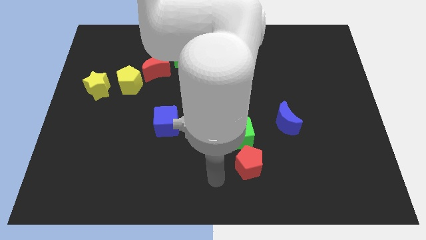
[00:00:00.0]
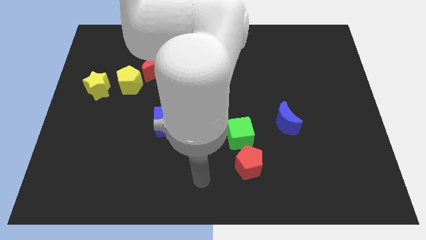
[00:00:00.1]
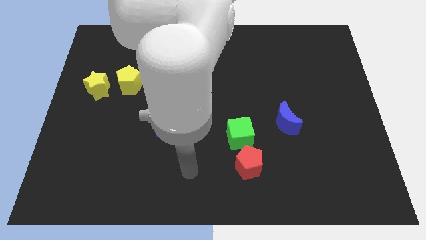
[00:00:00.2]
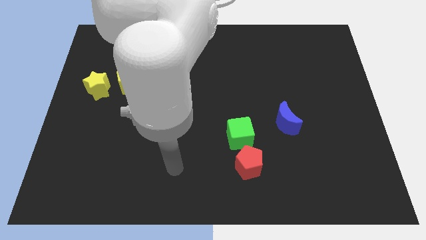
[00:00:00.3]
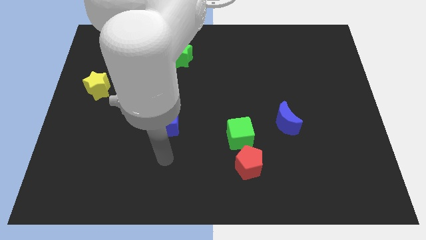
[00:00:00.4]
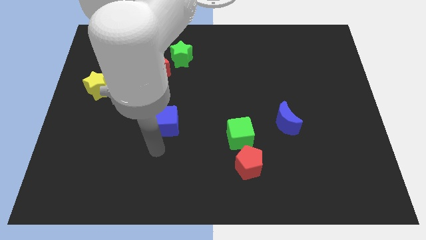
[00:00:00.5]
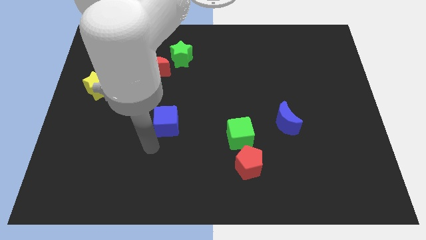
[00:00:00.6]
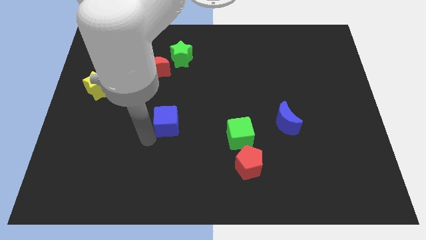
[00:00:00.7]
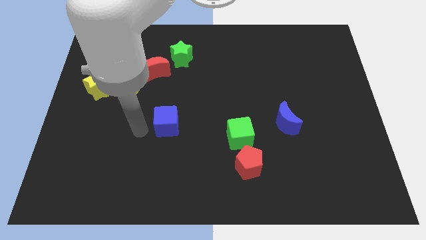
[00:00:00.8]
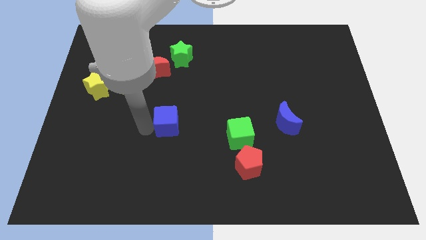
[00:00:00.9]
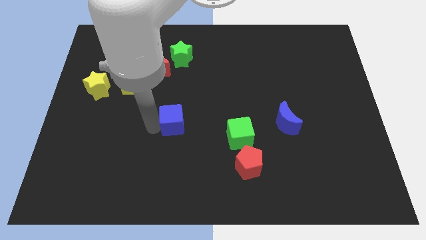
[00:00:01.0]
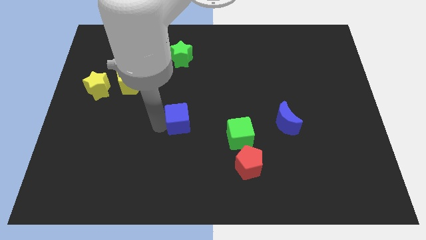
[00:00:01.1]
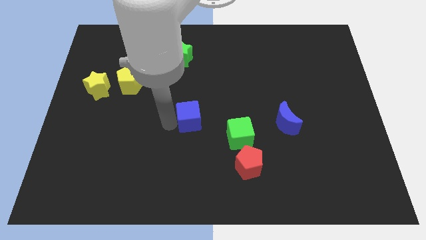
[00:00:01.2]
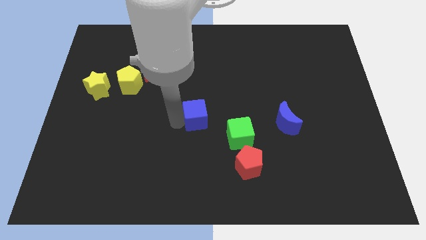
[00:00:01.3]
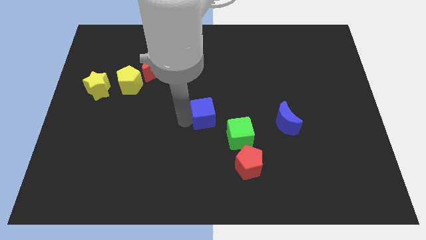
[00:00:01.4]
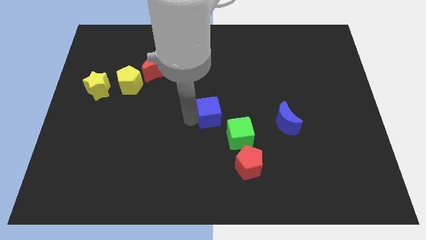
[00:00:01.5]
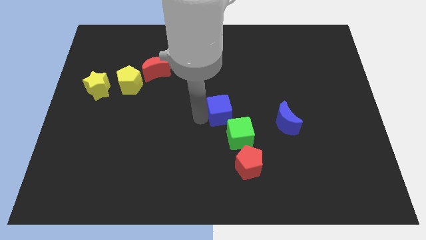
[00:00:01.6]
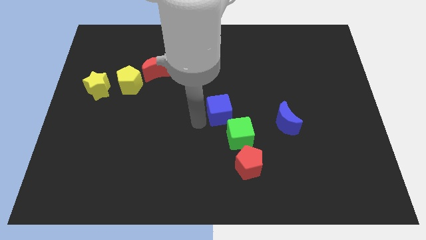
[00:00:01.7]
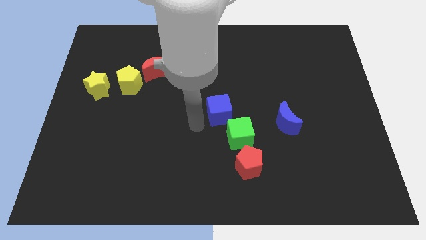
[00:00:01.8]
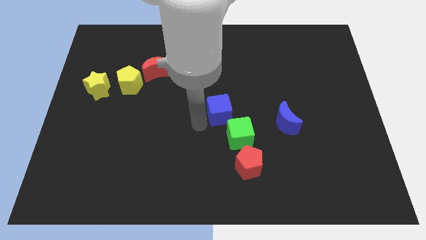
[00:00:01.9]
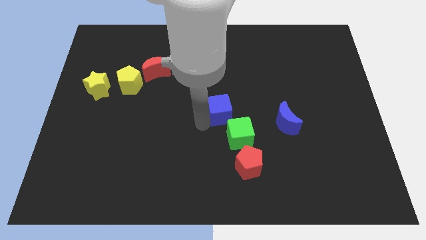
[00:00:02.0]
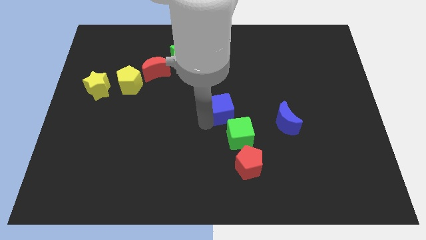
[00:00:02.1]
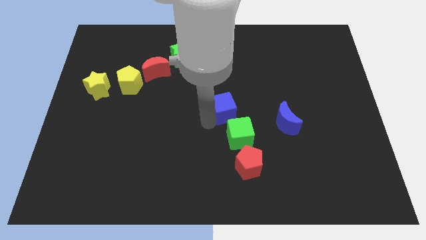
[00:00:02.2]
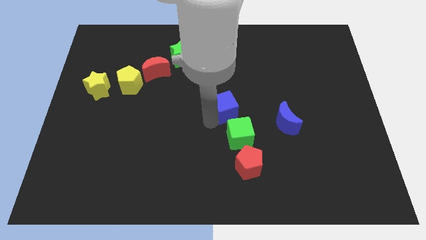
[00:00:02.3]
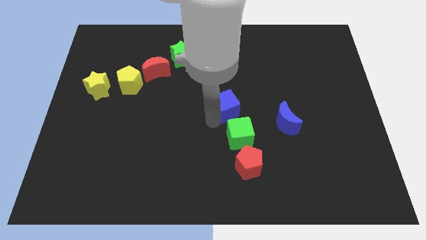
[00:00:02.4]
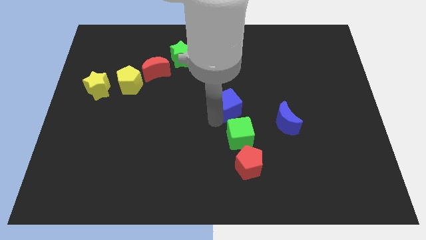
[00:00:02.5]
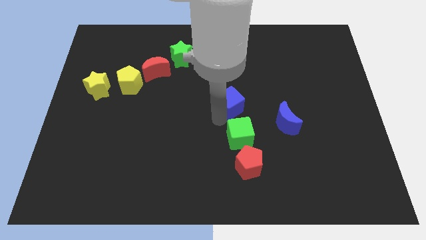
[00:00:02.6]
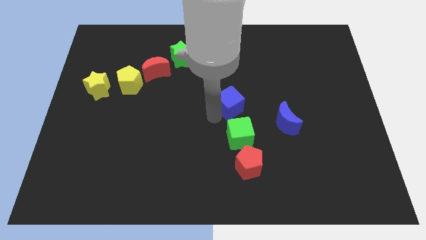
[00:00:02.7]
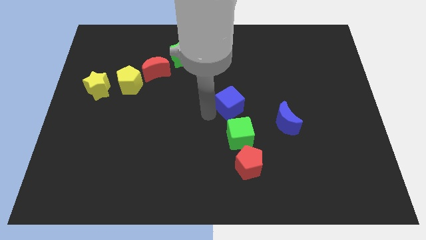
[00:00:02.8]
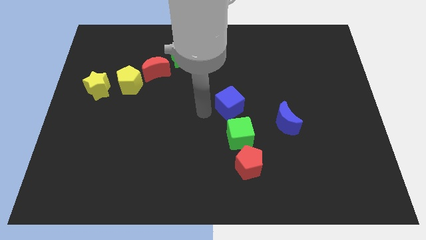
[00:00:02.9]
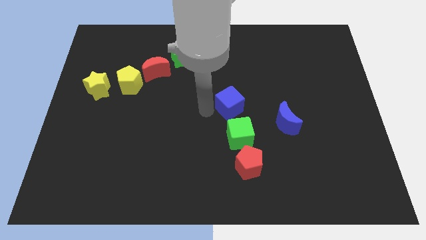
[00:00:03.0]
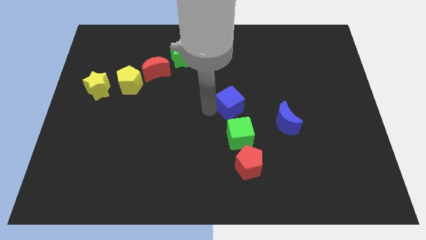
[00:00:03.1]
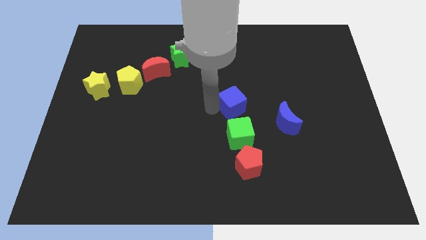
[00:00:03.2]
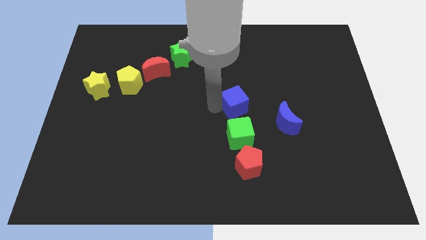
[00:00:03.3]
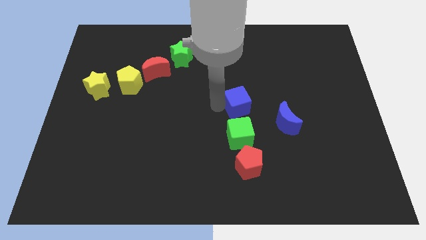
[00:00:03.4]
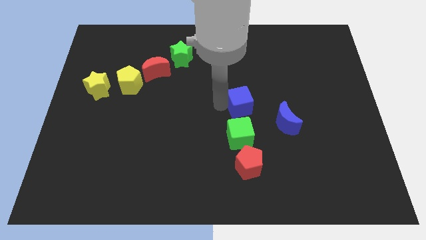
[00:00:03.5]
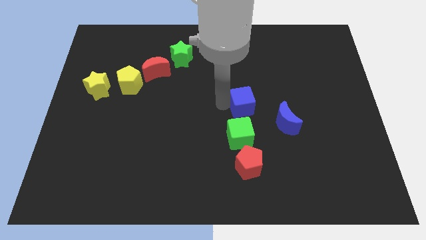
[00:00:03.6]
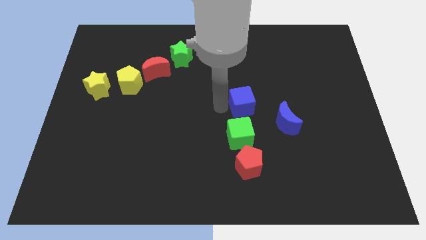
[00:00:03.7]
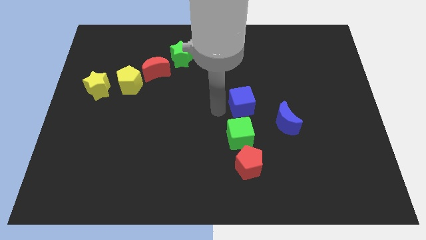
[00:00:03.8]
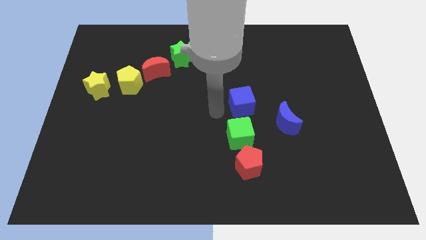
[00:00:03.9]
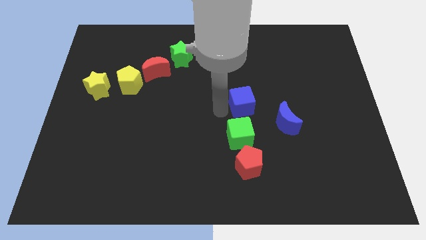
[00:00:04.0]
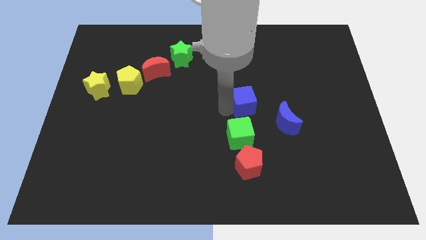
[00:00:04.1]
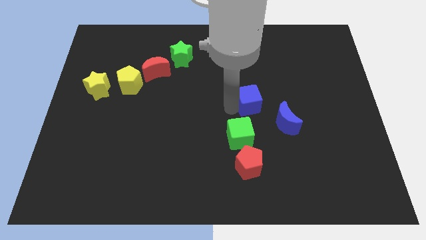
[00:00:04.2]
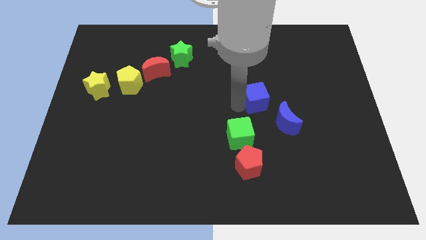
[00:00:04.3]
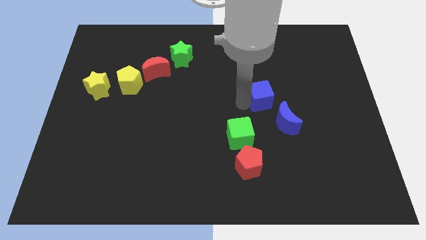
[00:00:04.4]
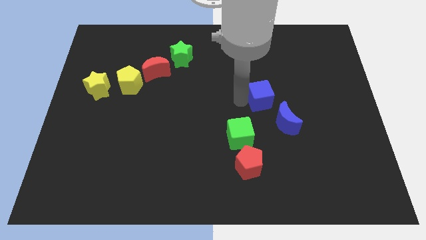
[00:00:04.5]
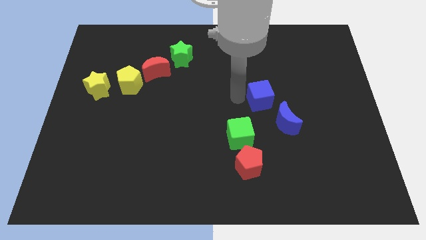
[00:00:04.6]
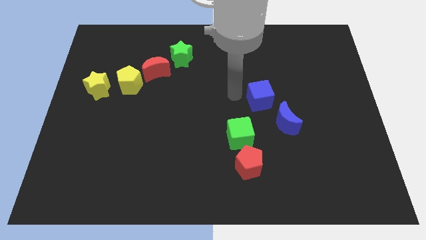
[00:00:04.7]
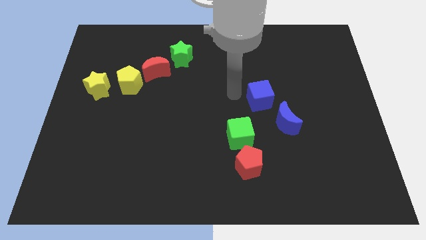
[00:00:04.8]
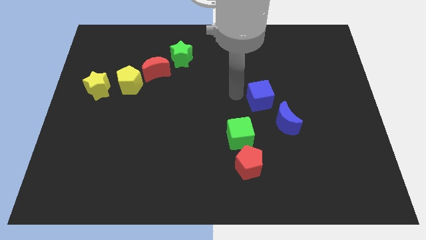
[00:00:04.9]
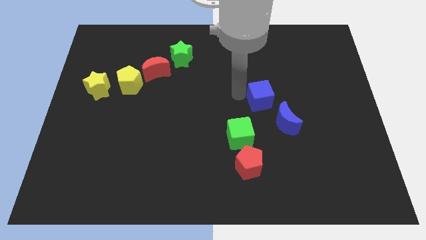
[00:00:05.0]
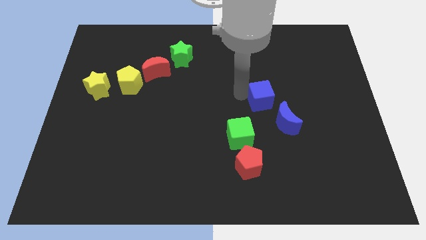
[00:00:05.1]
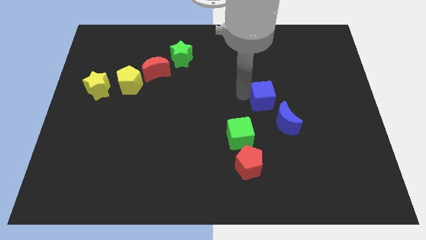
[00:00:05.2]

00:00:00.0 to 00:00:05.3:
slide the blue cube to the right

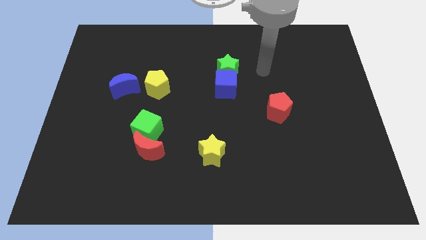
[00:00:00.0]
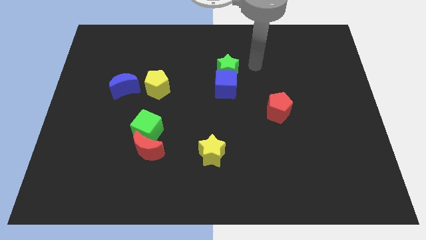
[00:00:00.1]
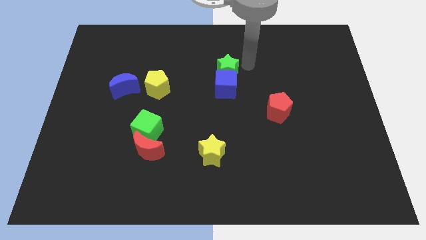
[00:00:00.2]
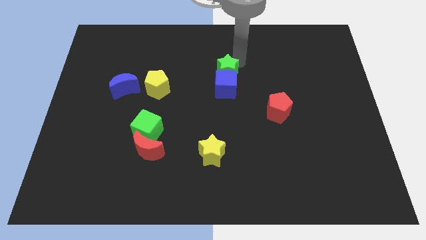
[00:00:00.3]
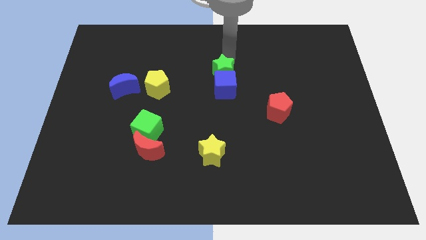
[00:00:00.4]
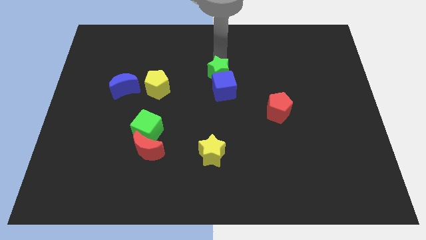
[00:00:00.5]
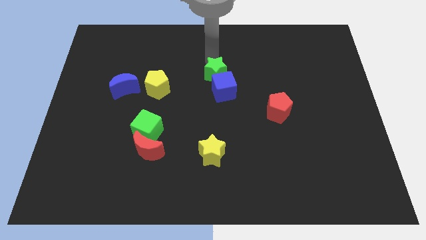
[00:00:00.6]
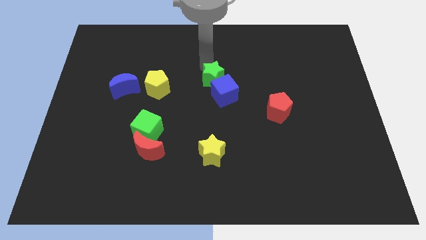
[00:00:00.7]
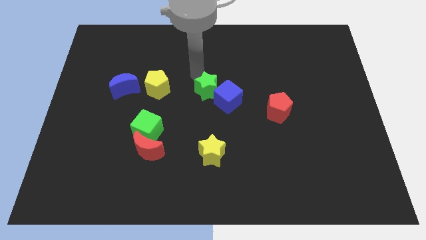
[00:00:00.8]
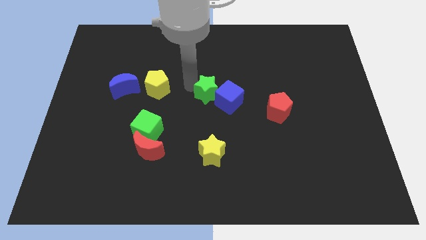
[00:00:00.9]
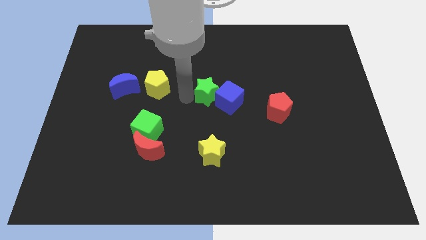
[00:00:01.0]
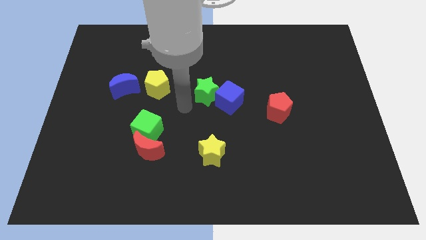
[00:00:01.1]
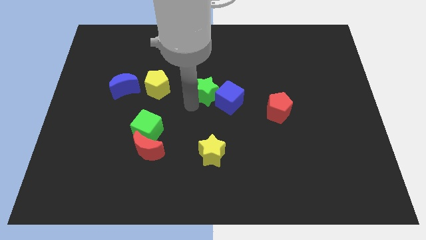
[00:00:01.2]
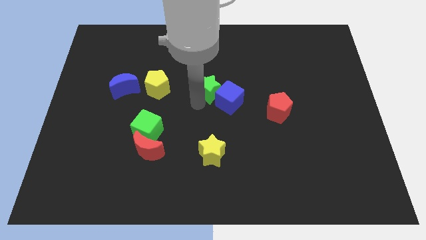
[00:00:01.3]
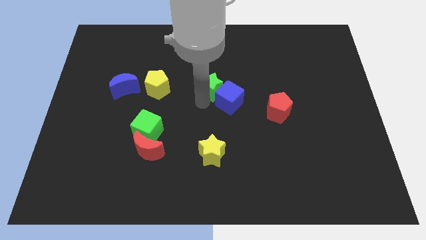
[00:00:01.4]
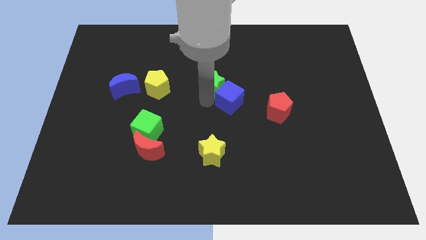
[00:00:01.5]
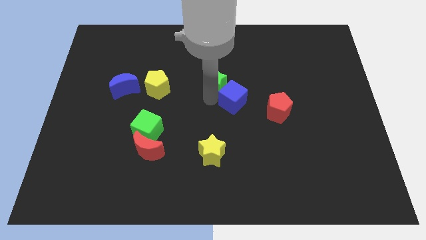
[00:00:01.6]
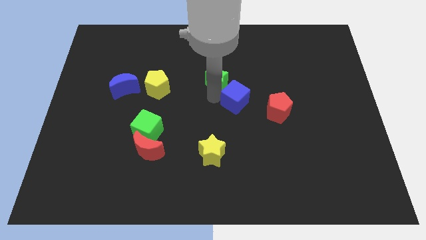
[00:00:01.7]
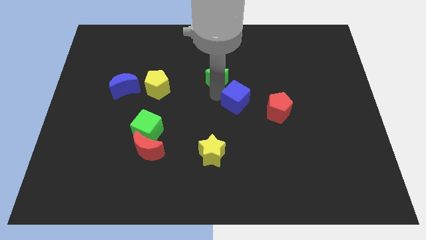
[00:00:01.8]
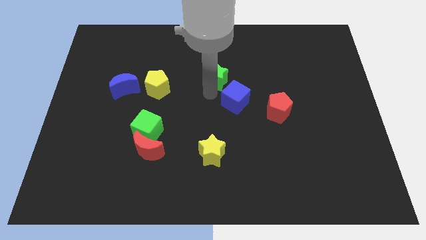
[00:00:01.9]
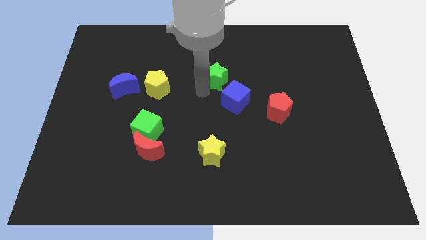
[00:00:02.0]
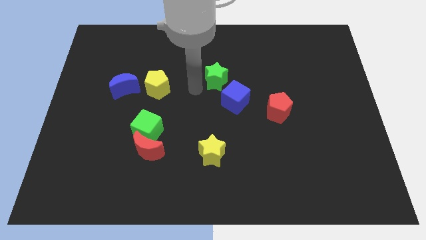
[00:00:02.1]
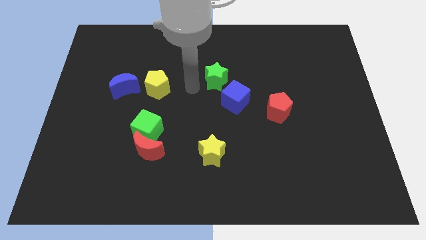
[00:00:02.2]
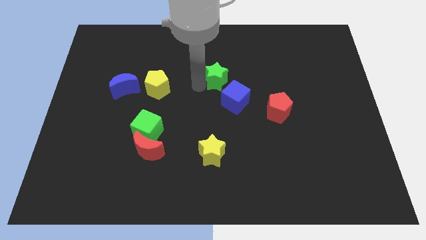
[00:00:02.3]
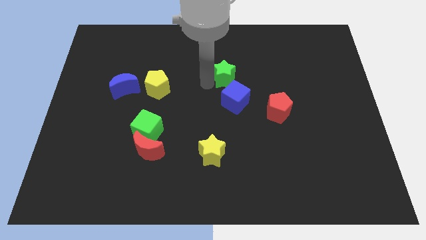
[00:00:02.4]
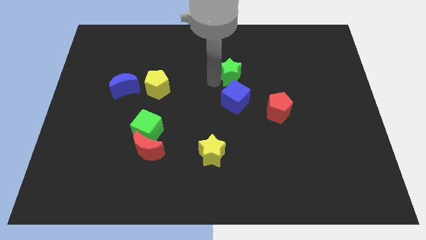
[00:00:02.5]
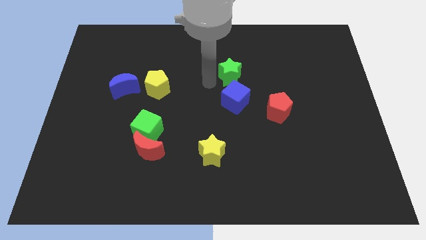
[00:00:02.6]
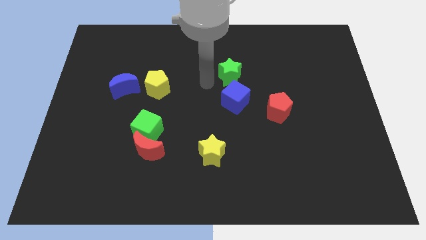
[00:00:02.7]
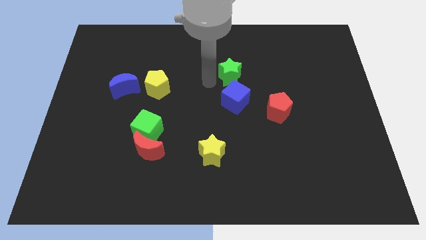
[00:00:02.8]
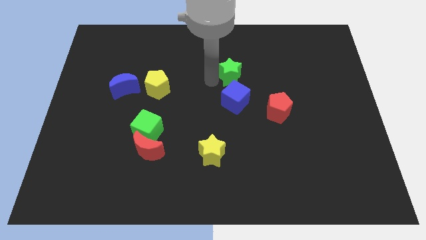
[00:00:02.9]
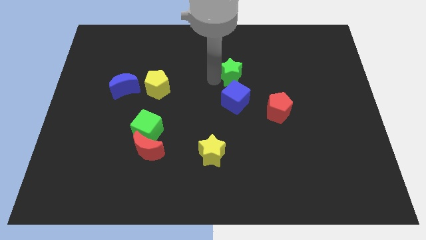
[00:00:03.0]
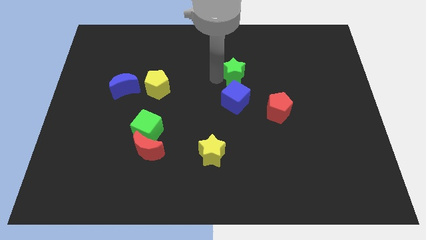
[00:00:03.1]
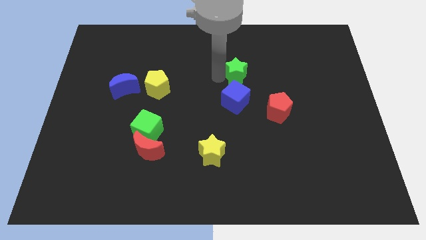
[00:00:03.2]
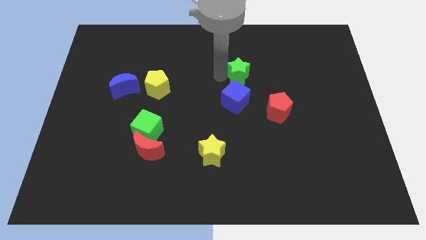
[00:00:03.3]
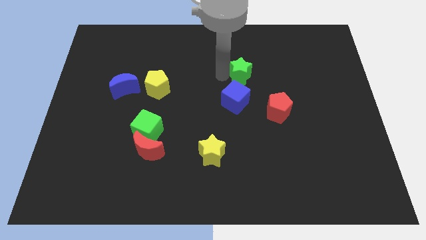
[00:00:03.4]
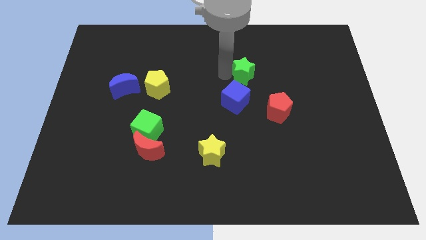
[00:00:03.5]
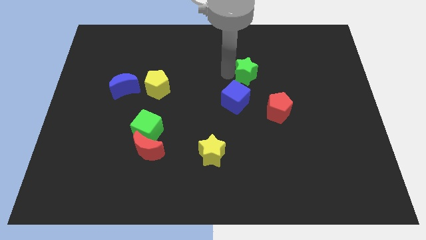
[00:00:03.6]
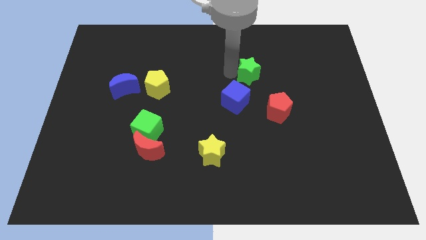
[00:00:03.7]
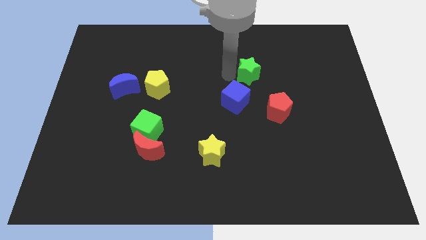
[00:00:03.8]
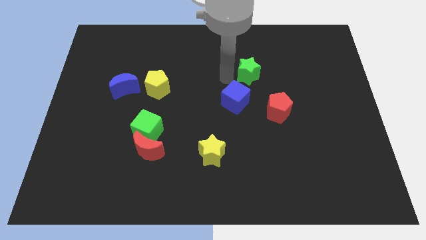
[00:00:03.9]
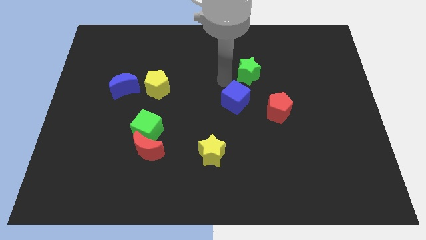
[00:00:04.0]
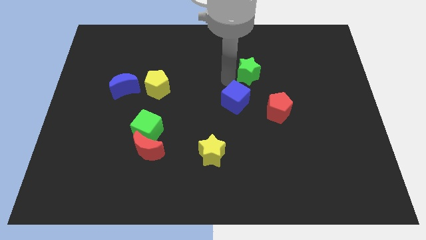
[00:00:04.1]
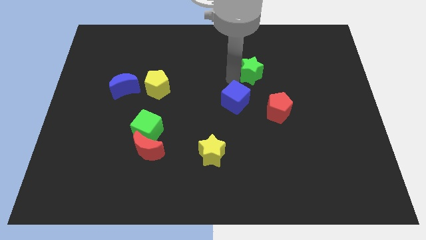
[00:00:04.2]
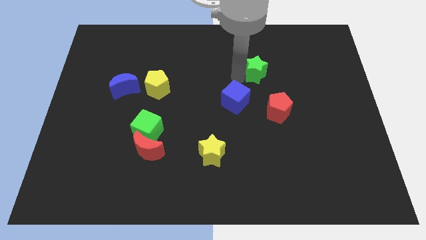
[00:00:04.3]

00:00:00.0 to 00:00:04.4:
move the green star right a little bit
